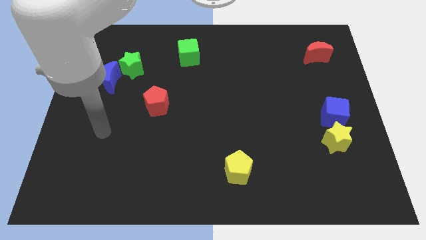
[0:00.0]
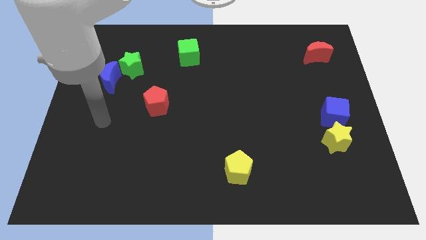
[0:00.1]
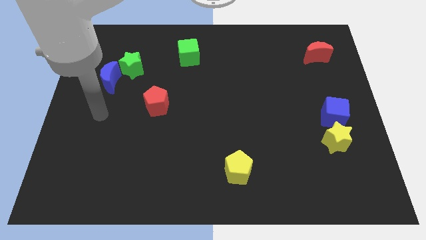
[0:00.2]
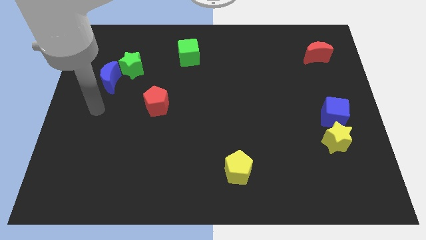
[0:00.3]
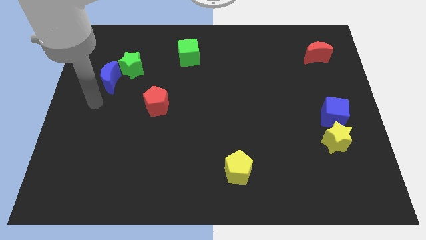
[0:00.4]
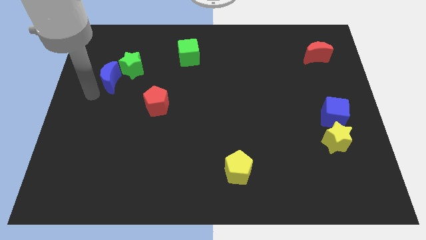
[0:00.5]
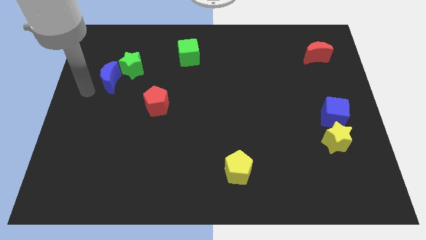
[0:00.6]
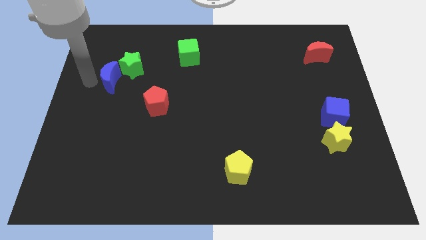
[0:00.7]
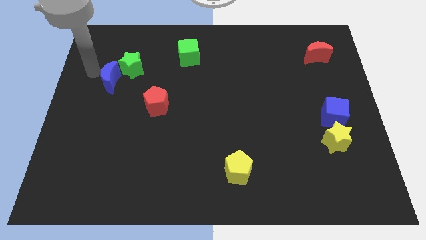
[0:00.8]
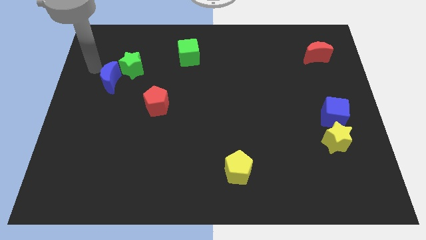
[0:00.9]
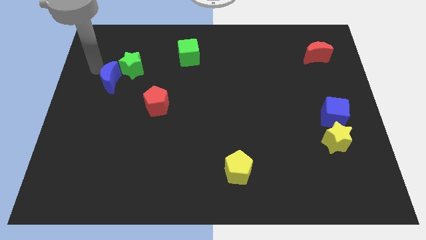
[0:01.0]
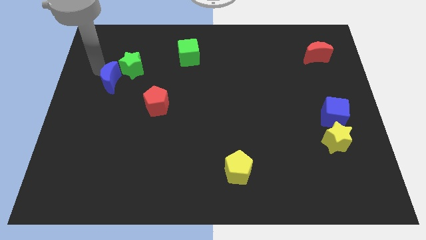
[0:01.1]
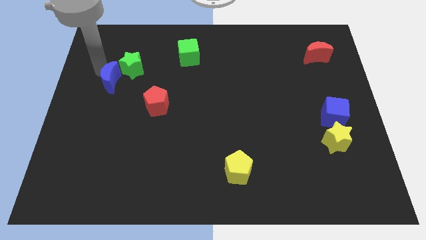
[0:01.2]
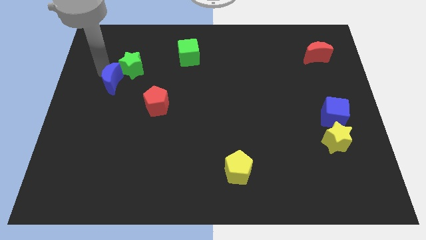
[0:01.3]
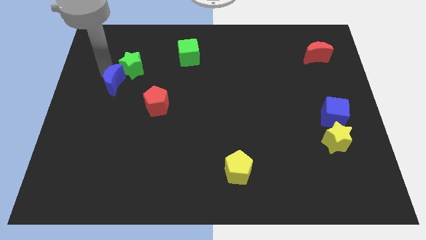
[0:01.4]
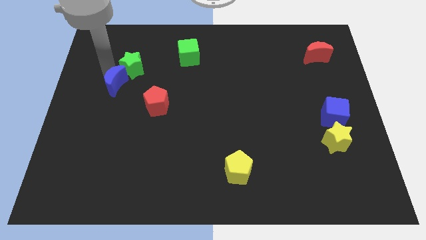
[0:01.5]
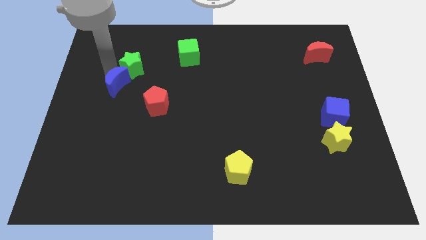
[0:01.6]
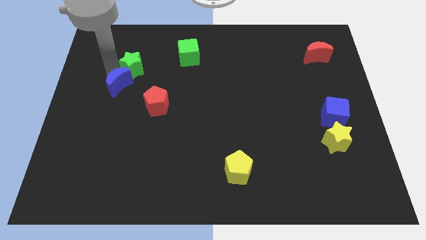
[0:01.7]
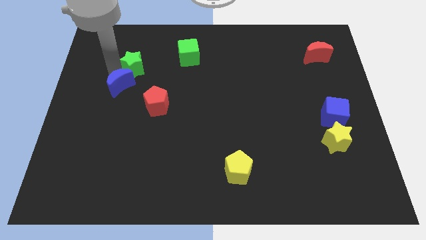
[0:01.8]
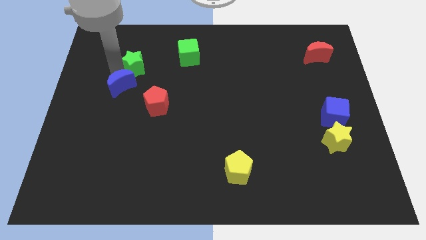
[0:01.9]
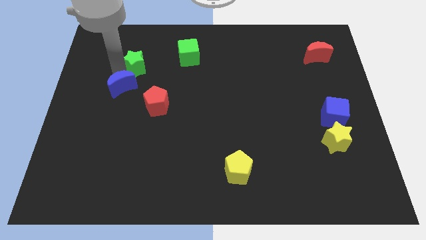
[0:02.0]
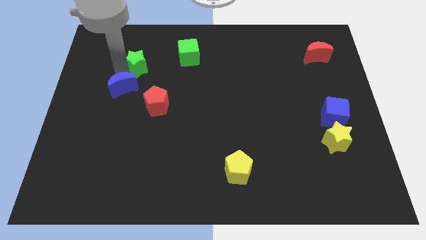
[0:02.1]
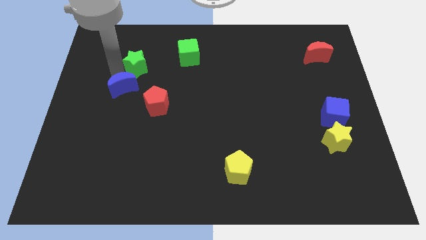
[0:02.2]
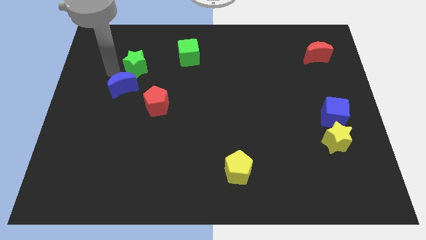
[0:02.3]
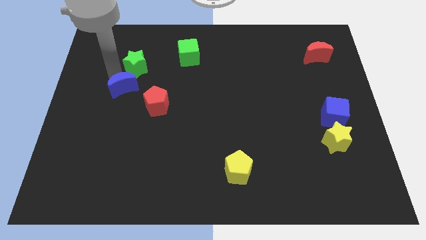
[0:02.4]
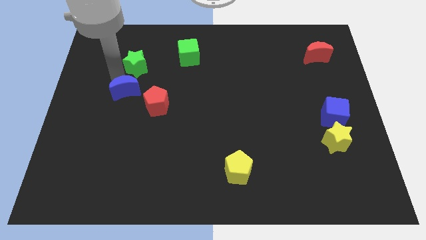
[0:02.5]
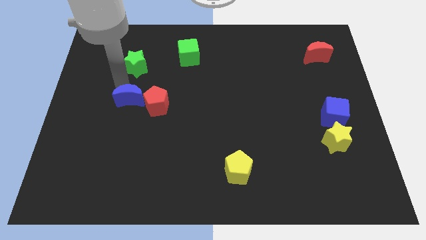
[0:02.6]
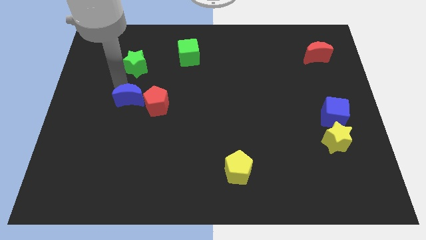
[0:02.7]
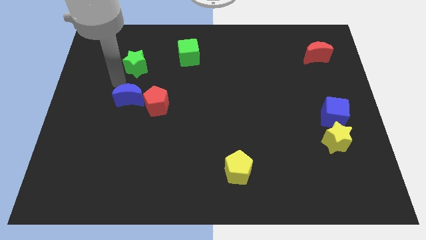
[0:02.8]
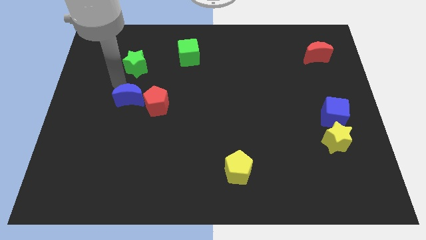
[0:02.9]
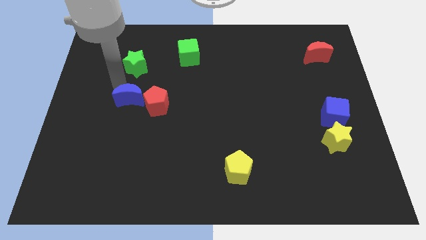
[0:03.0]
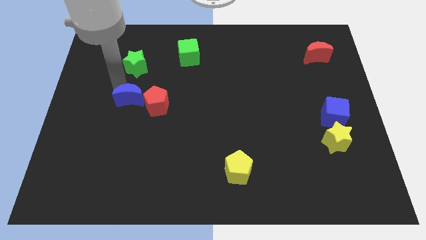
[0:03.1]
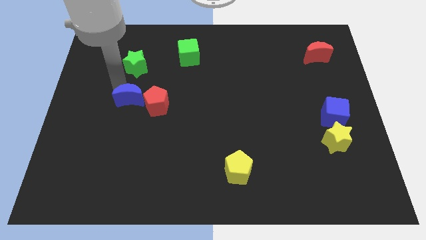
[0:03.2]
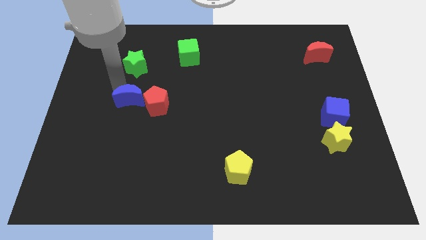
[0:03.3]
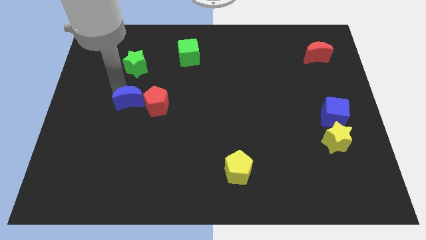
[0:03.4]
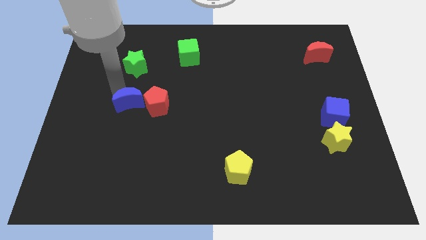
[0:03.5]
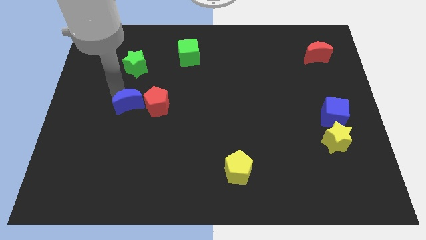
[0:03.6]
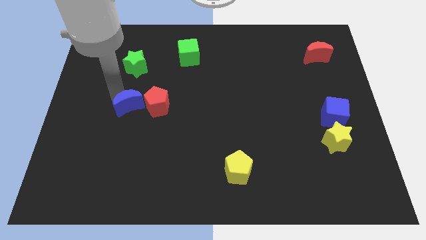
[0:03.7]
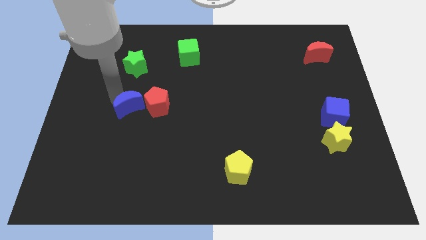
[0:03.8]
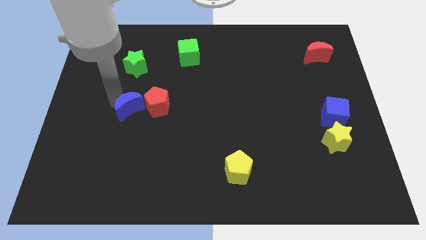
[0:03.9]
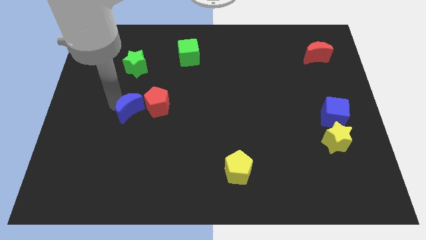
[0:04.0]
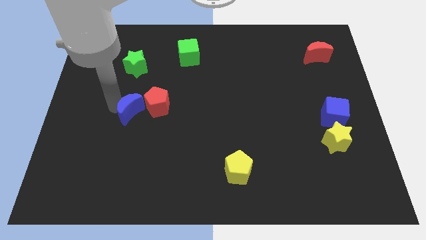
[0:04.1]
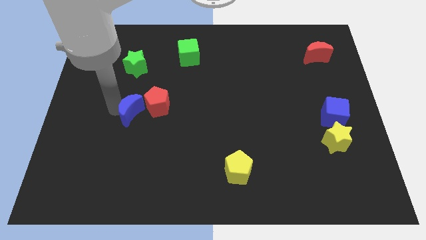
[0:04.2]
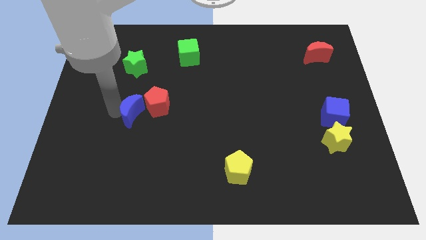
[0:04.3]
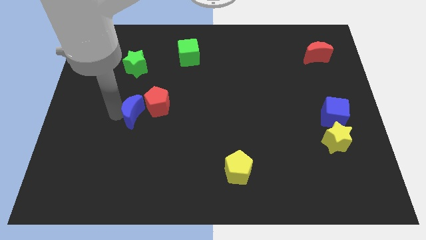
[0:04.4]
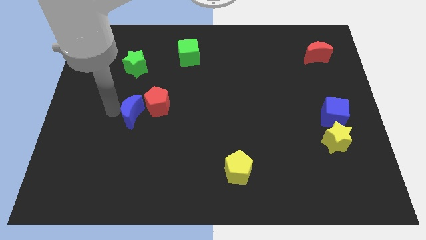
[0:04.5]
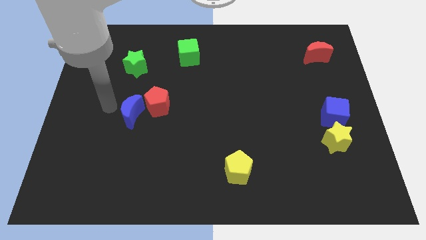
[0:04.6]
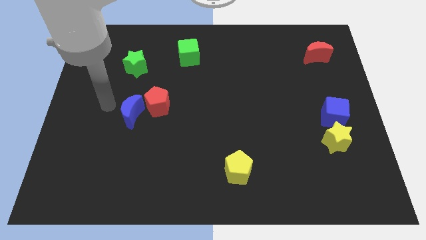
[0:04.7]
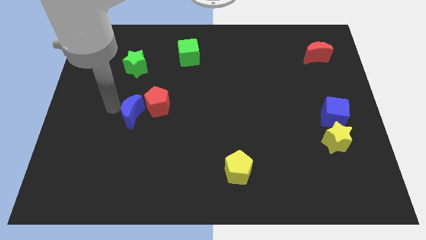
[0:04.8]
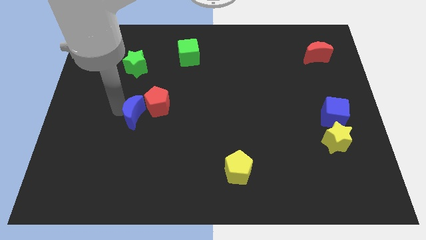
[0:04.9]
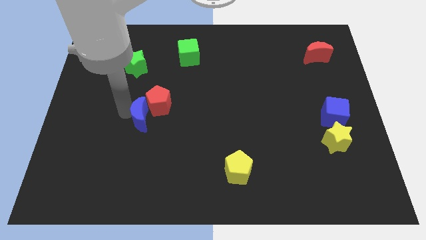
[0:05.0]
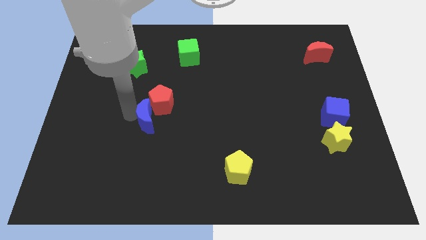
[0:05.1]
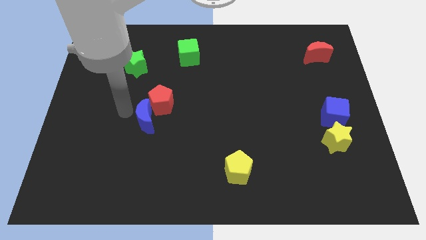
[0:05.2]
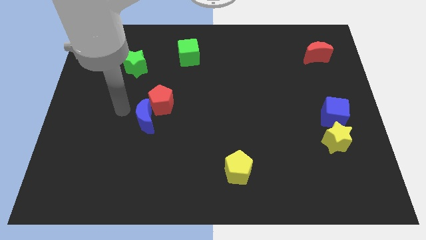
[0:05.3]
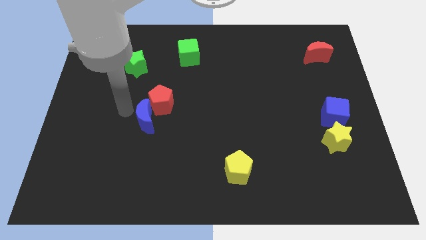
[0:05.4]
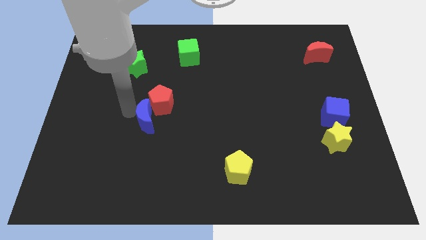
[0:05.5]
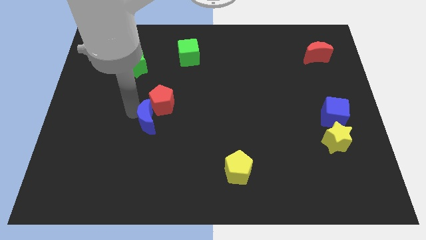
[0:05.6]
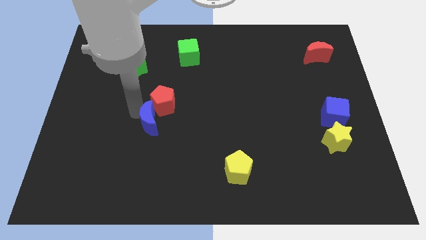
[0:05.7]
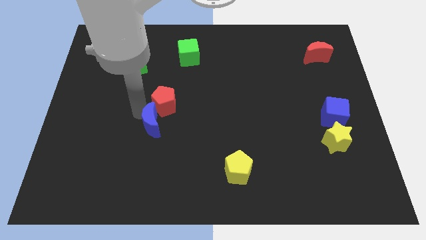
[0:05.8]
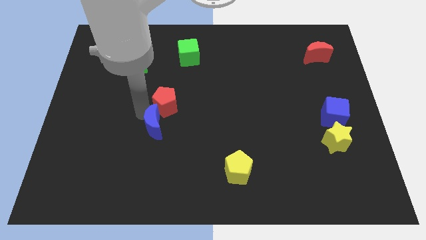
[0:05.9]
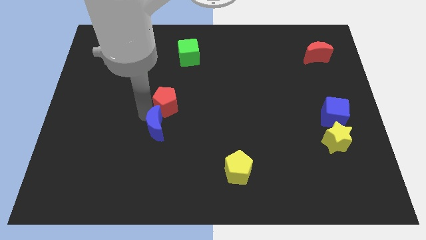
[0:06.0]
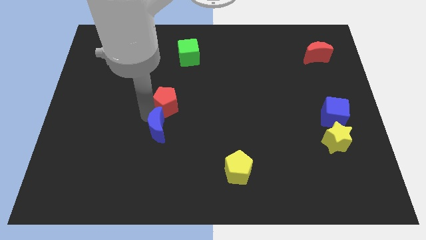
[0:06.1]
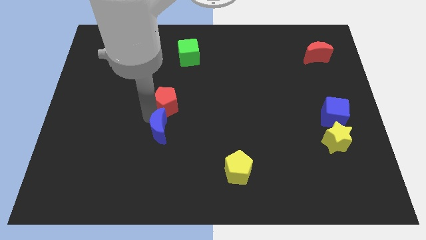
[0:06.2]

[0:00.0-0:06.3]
push the blue moon down and then to the right

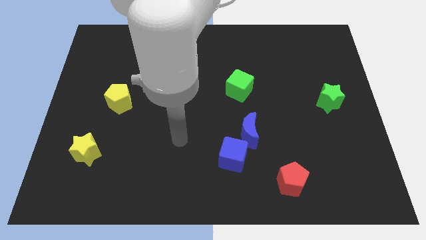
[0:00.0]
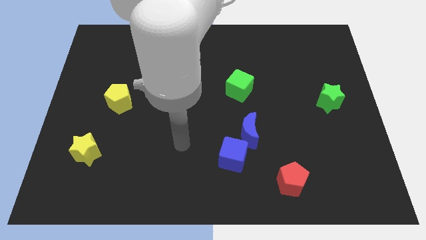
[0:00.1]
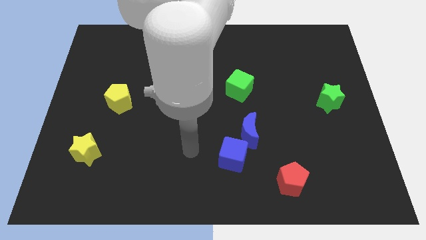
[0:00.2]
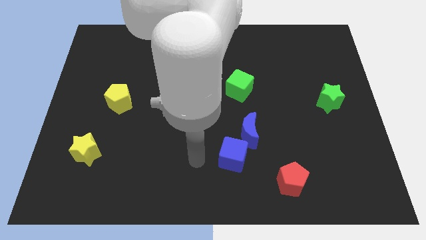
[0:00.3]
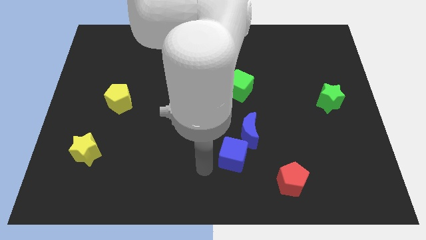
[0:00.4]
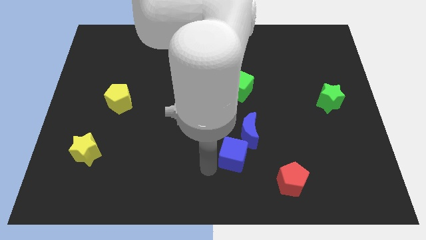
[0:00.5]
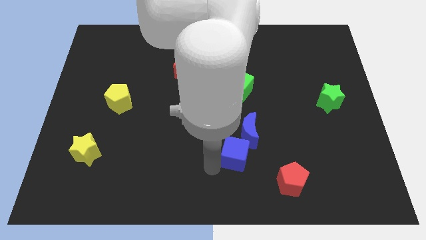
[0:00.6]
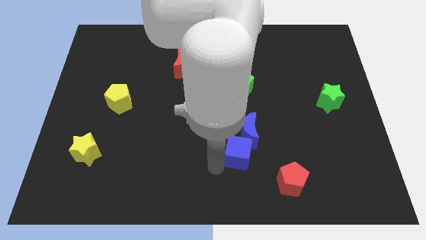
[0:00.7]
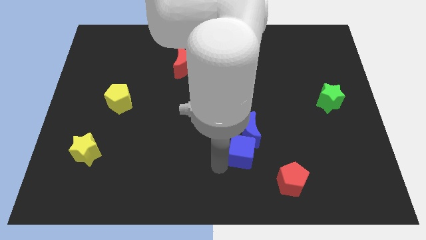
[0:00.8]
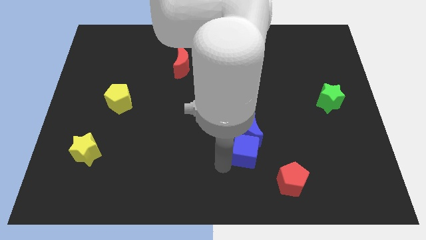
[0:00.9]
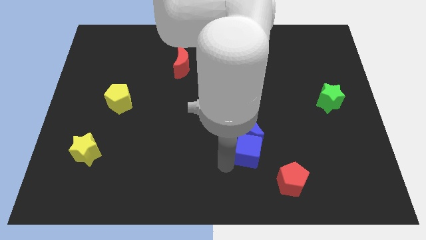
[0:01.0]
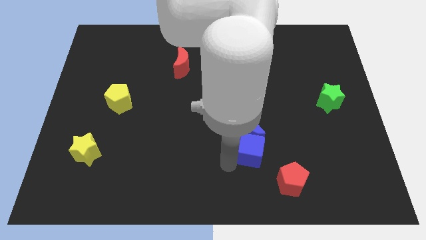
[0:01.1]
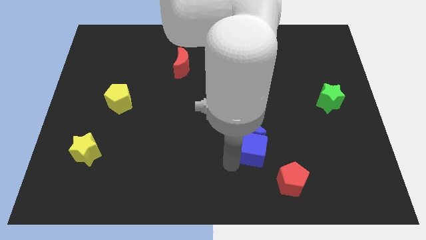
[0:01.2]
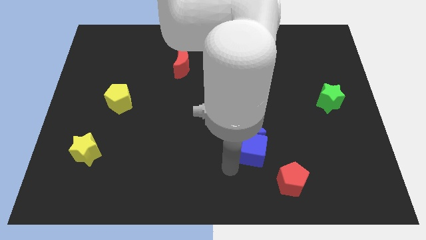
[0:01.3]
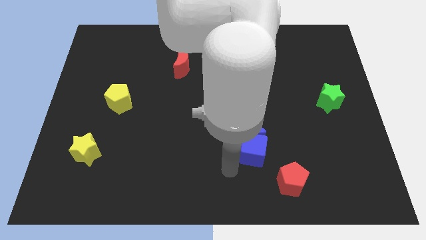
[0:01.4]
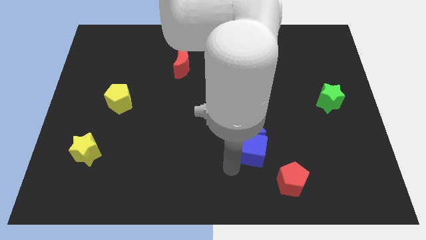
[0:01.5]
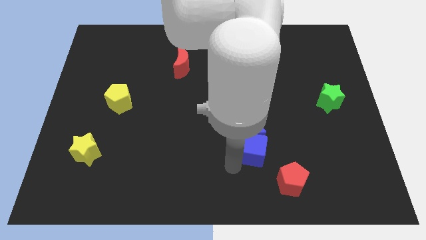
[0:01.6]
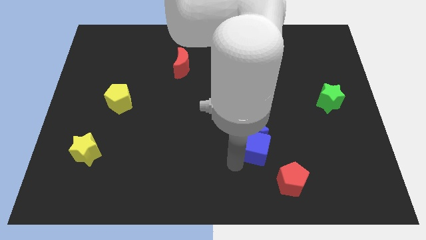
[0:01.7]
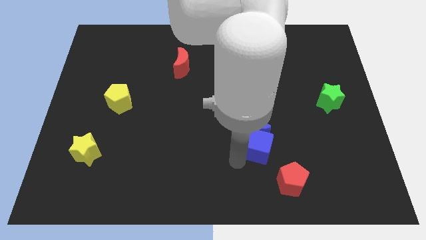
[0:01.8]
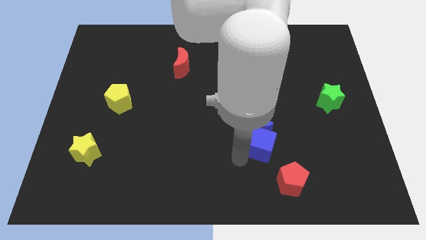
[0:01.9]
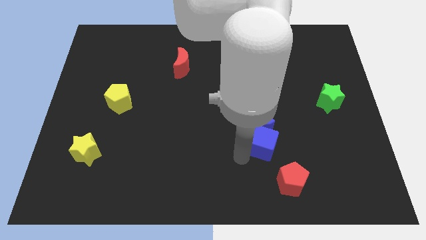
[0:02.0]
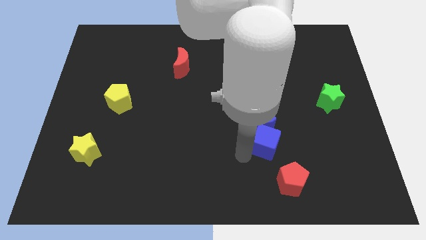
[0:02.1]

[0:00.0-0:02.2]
push the blue cube upwards and then to the right a bit
